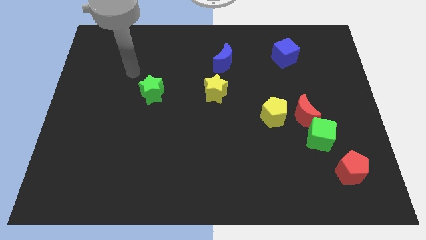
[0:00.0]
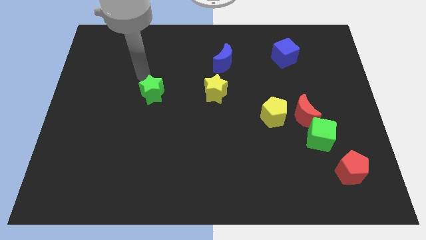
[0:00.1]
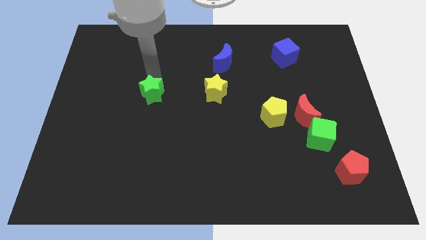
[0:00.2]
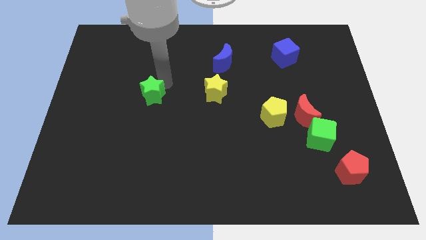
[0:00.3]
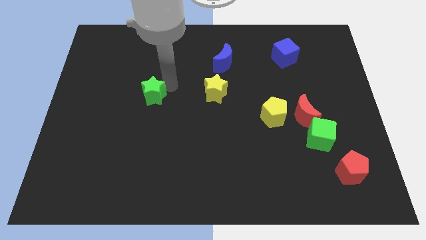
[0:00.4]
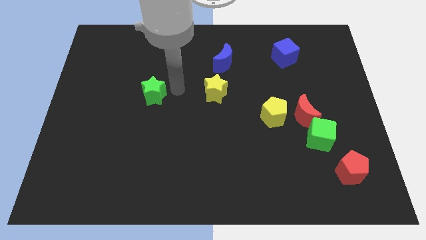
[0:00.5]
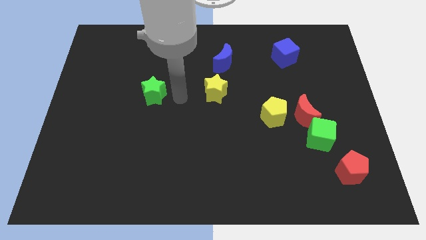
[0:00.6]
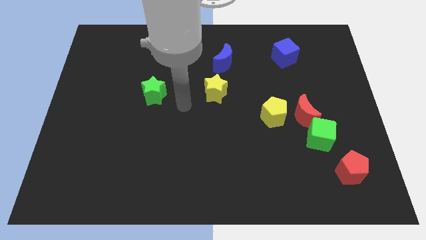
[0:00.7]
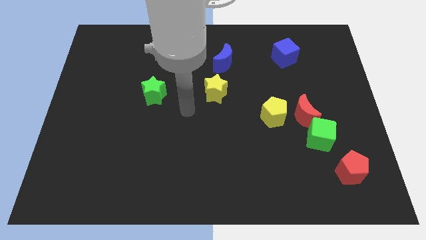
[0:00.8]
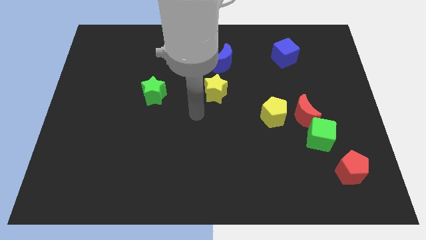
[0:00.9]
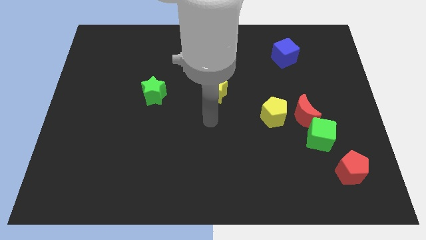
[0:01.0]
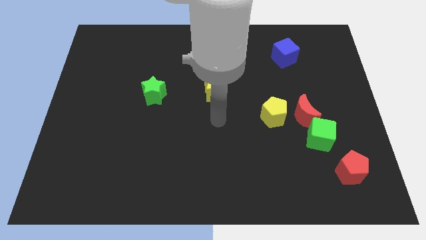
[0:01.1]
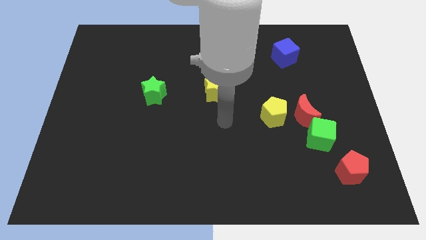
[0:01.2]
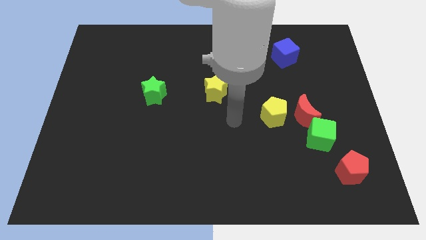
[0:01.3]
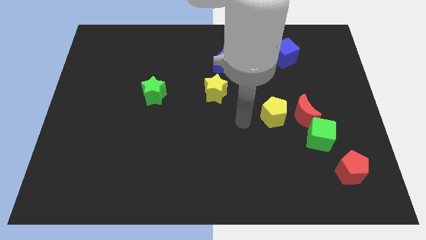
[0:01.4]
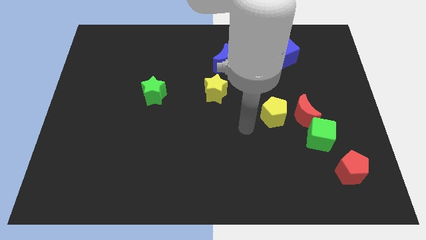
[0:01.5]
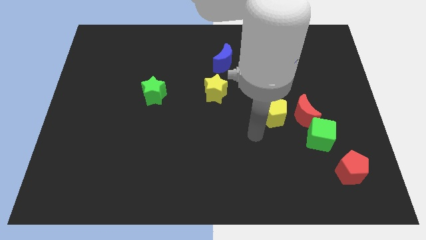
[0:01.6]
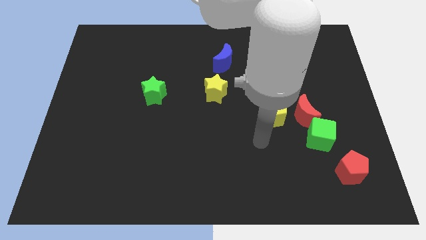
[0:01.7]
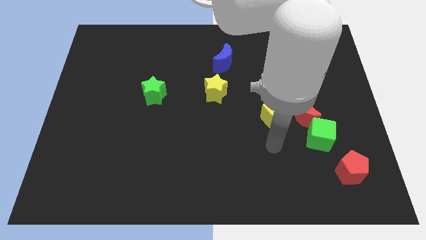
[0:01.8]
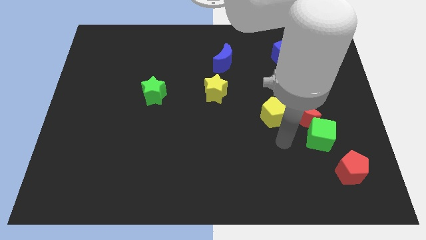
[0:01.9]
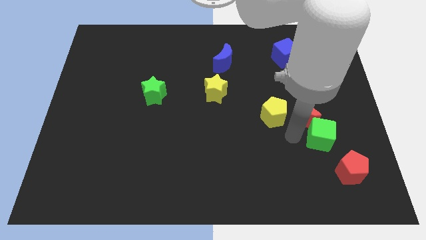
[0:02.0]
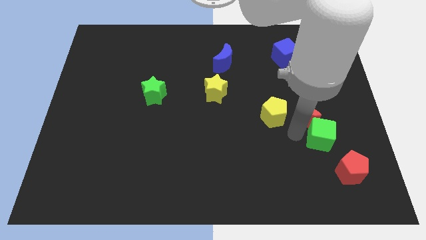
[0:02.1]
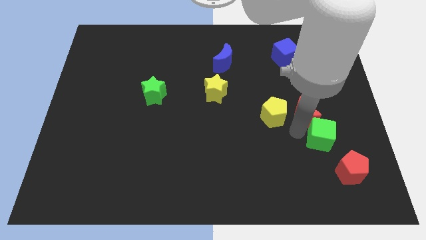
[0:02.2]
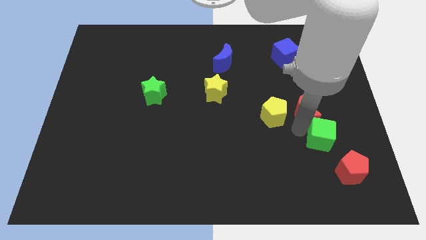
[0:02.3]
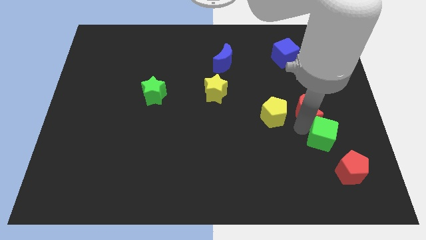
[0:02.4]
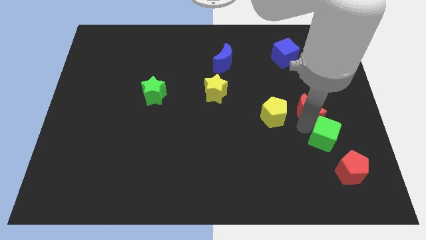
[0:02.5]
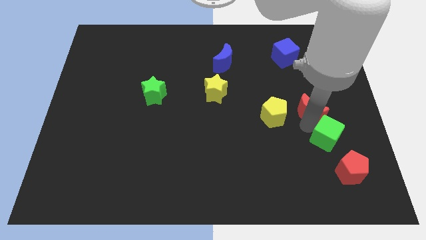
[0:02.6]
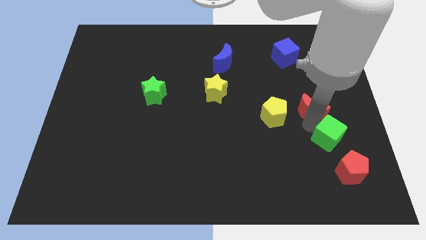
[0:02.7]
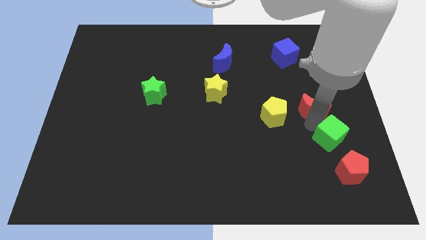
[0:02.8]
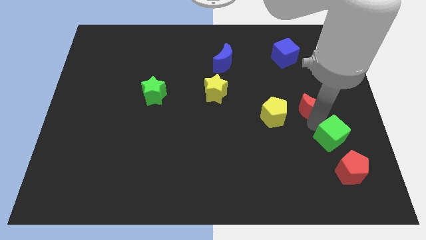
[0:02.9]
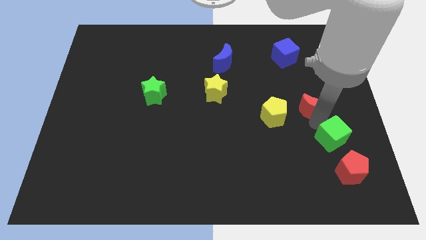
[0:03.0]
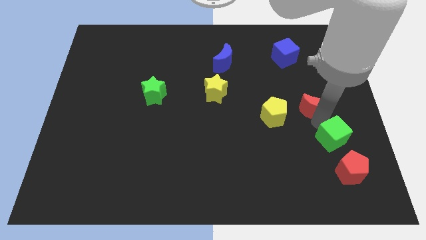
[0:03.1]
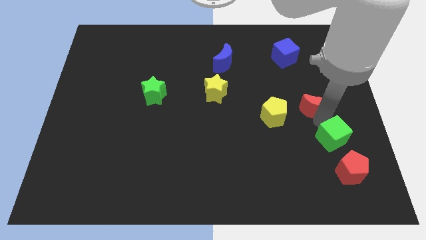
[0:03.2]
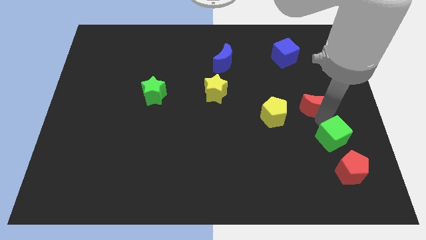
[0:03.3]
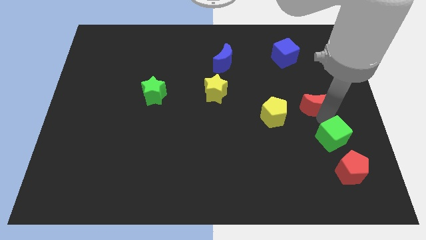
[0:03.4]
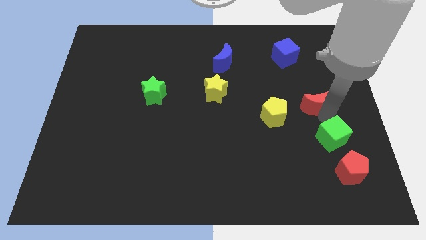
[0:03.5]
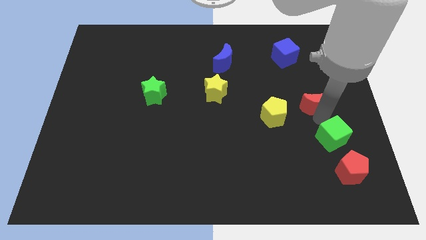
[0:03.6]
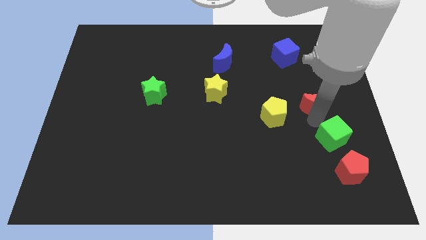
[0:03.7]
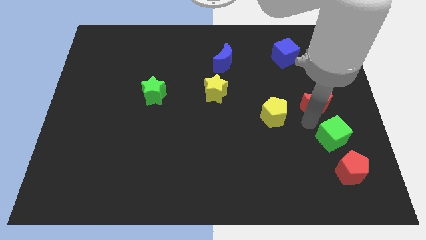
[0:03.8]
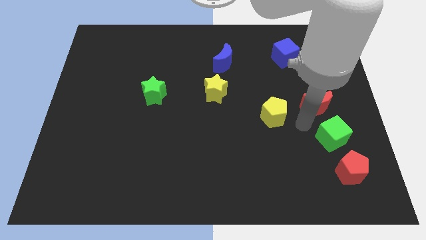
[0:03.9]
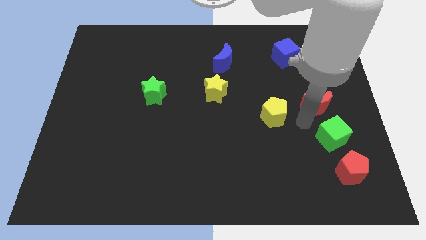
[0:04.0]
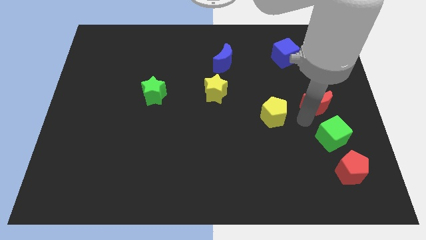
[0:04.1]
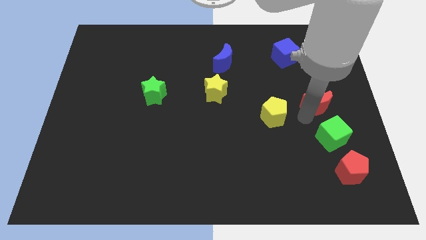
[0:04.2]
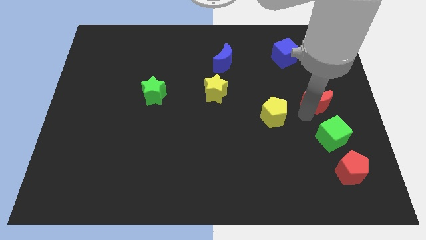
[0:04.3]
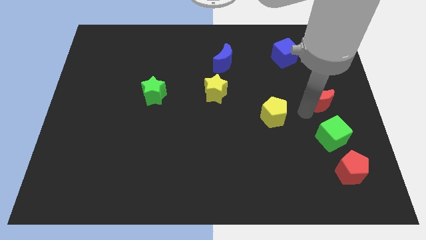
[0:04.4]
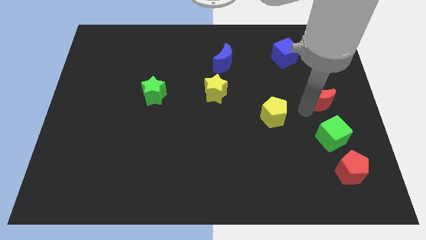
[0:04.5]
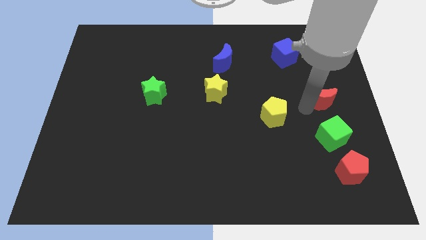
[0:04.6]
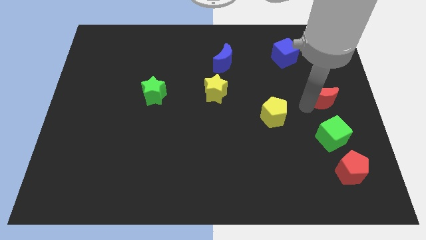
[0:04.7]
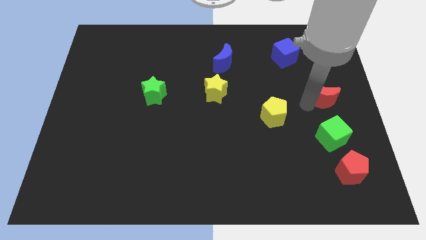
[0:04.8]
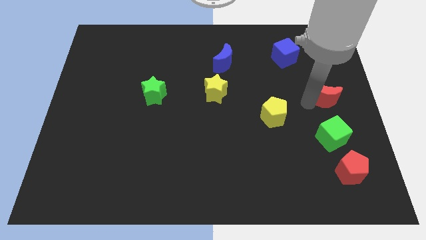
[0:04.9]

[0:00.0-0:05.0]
separate the red moon from the green cube and yellow pentagon

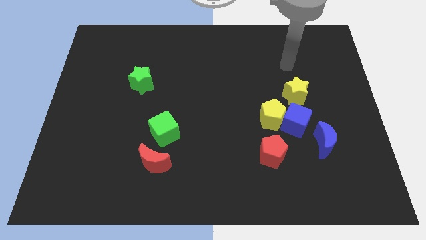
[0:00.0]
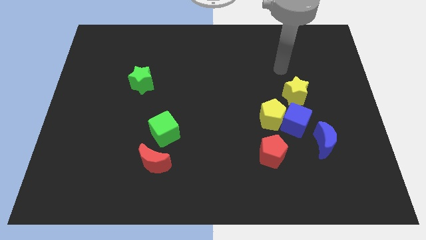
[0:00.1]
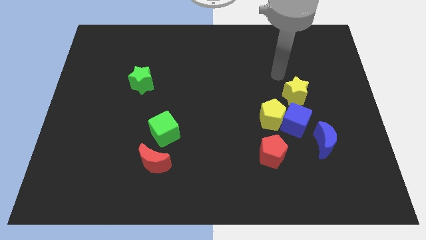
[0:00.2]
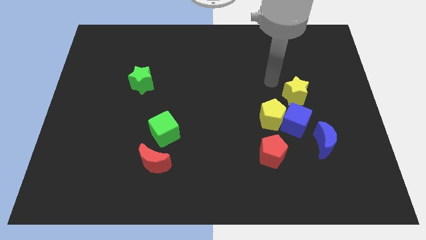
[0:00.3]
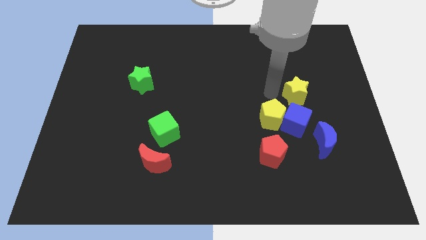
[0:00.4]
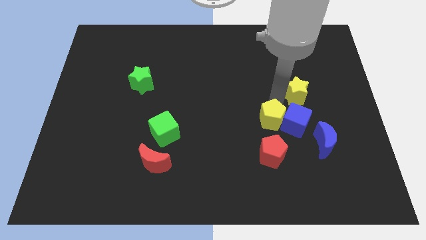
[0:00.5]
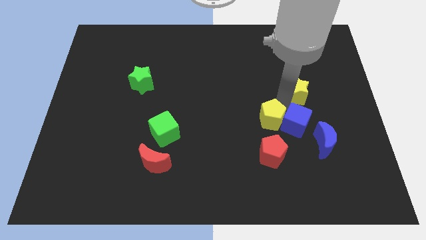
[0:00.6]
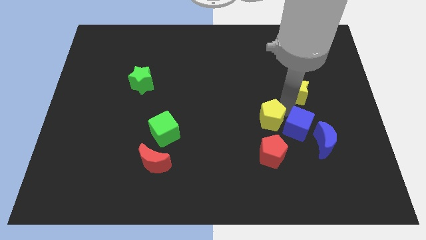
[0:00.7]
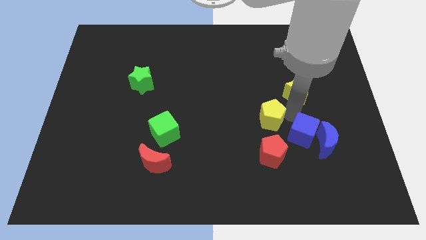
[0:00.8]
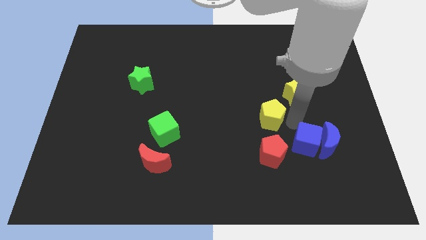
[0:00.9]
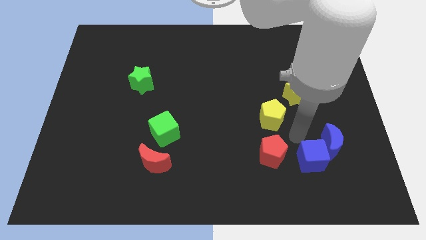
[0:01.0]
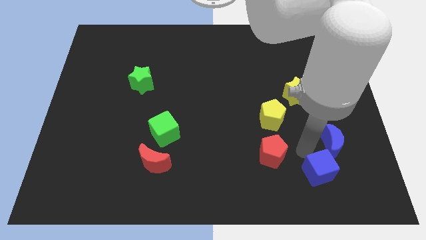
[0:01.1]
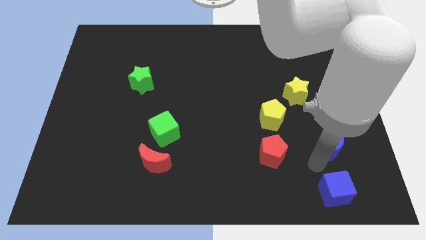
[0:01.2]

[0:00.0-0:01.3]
pull the blue moon apart from the blue cube

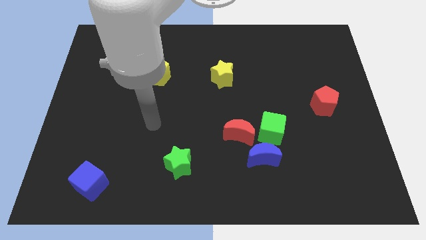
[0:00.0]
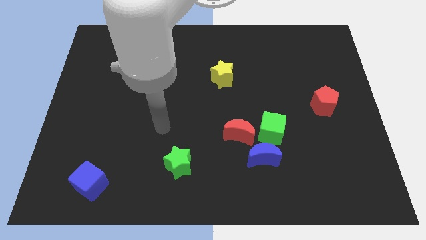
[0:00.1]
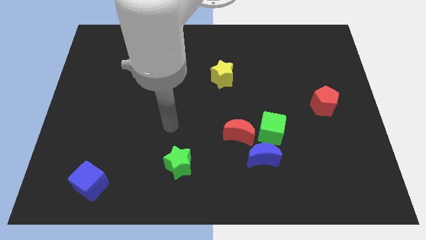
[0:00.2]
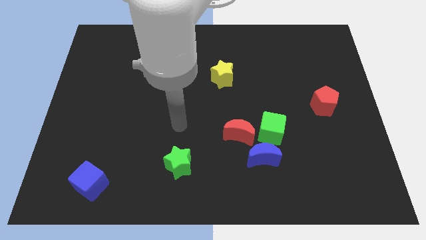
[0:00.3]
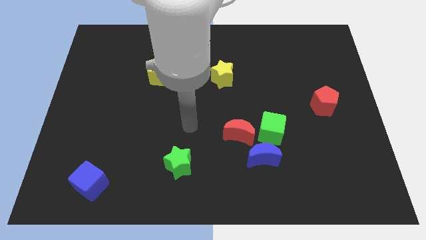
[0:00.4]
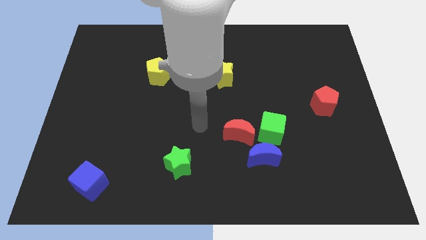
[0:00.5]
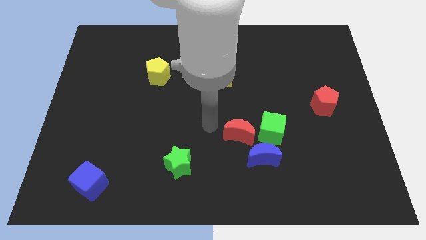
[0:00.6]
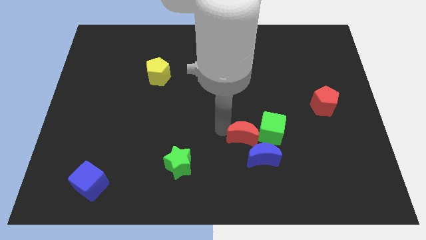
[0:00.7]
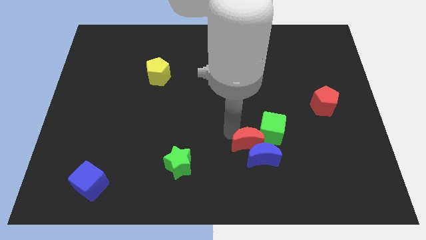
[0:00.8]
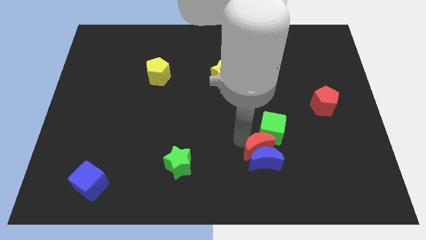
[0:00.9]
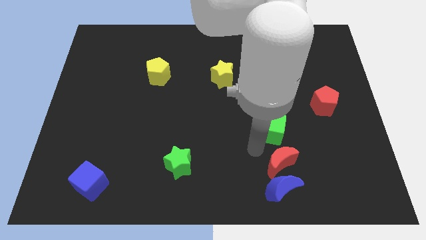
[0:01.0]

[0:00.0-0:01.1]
separate the green cube from the blue moon and red moon

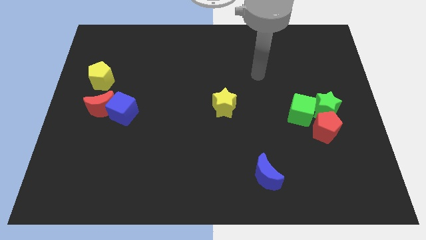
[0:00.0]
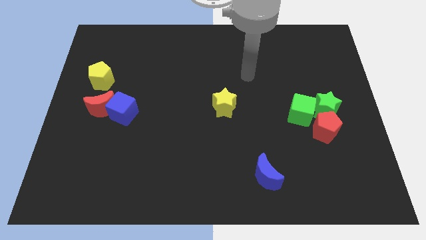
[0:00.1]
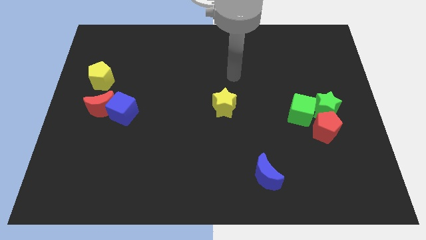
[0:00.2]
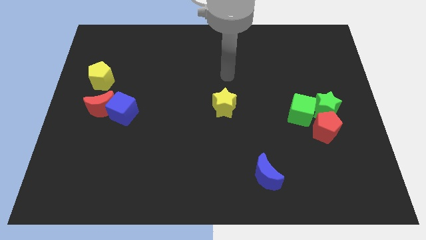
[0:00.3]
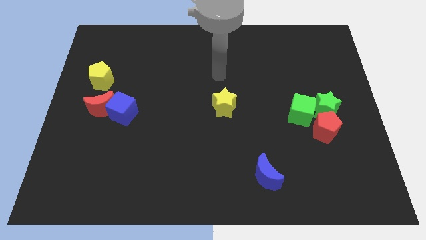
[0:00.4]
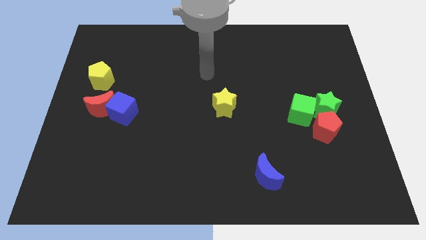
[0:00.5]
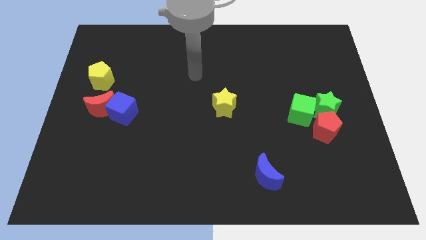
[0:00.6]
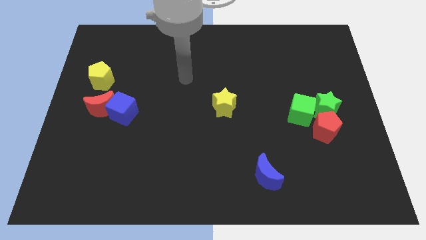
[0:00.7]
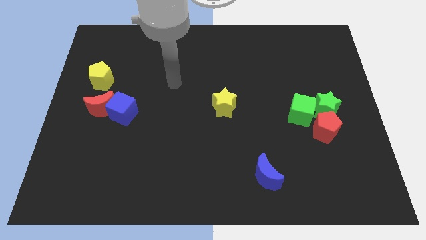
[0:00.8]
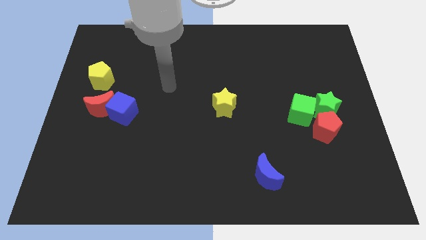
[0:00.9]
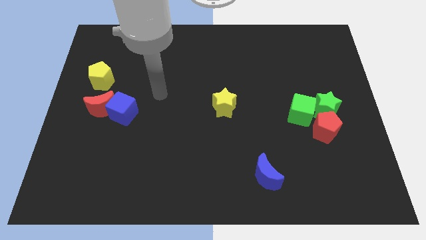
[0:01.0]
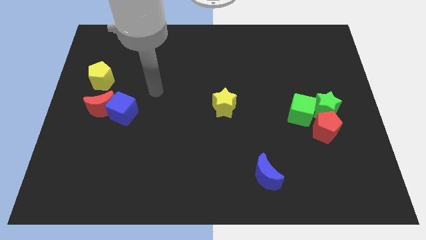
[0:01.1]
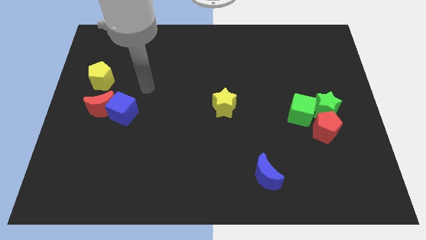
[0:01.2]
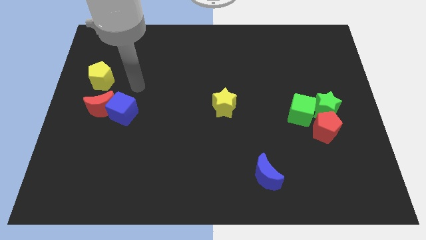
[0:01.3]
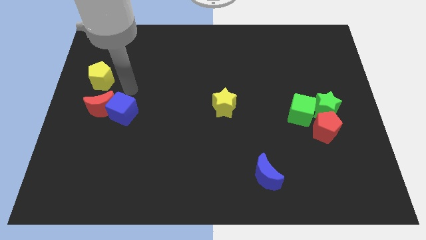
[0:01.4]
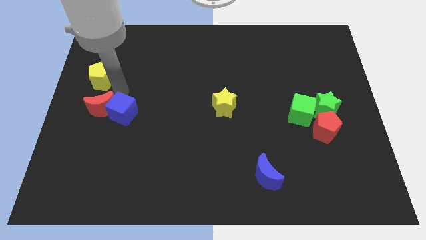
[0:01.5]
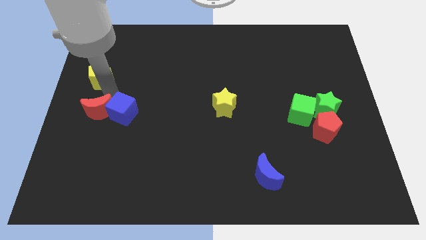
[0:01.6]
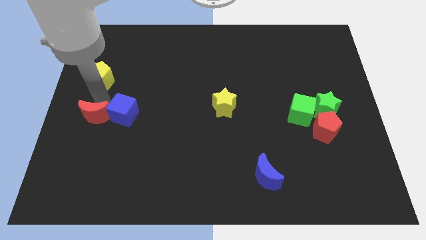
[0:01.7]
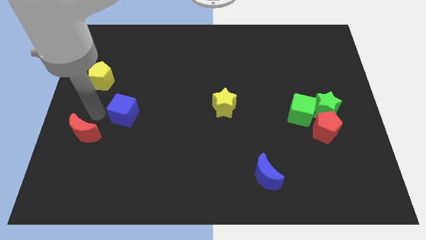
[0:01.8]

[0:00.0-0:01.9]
separate the blue cube from the red moon
